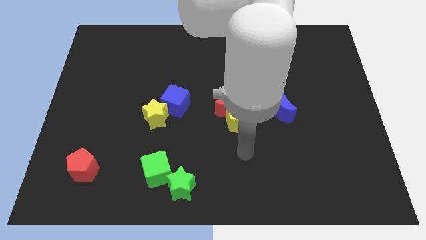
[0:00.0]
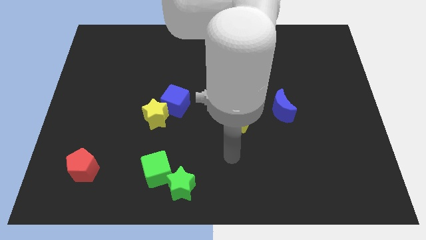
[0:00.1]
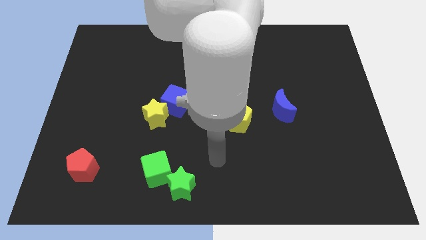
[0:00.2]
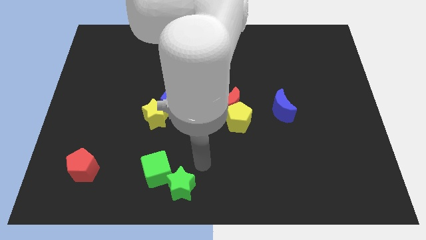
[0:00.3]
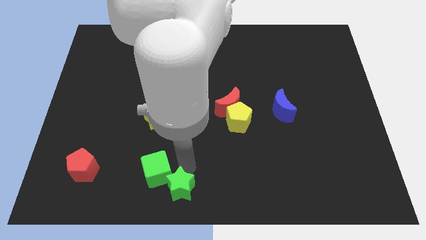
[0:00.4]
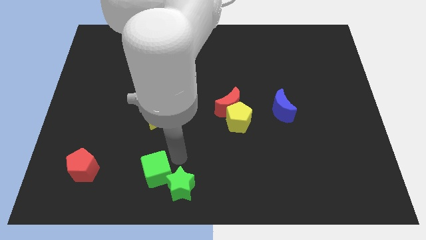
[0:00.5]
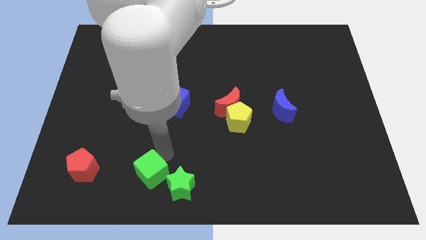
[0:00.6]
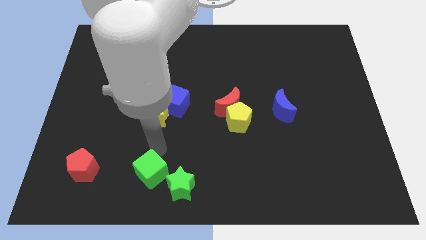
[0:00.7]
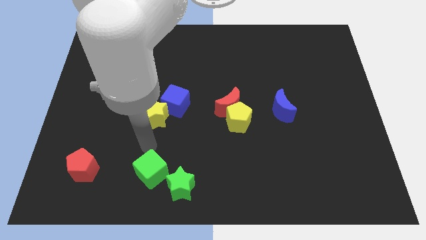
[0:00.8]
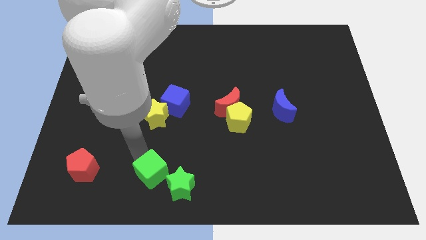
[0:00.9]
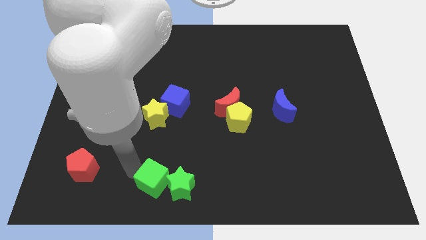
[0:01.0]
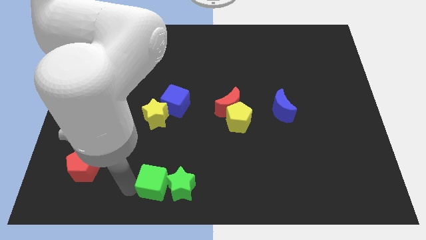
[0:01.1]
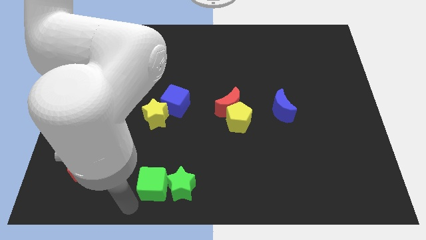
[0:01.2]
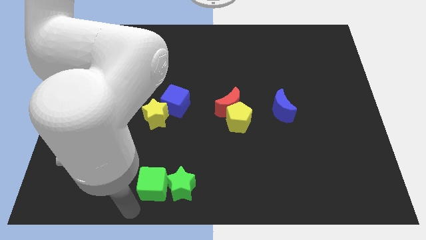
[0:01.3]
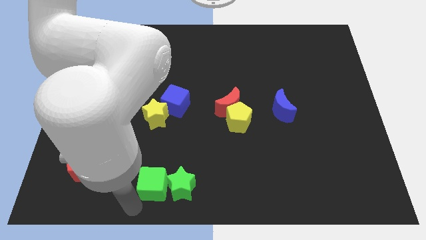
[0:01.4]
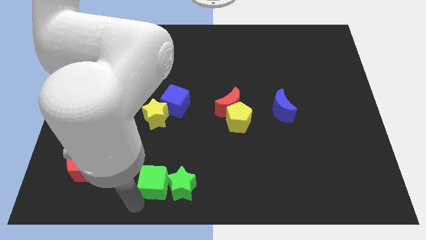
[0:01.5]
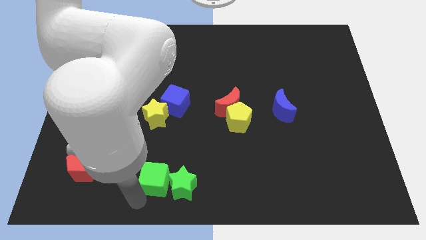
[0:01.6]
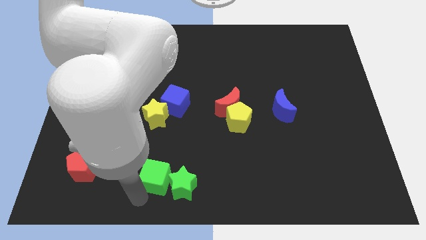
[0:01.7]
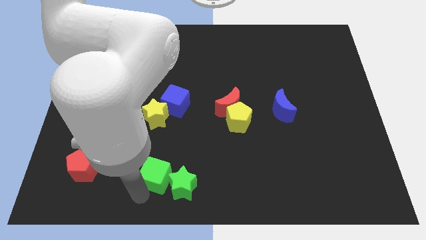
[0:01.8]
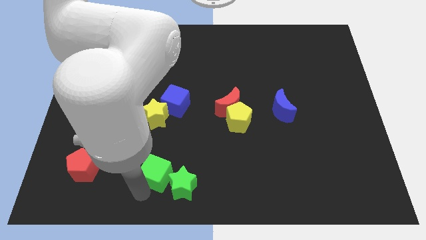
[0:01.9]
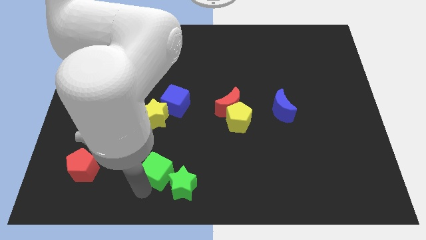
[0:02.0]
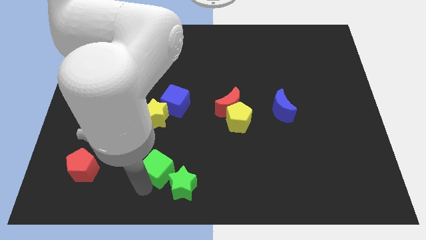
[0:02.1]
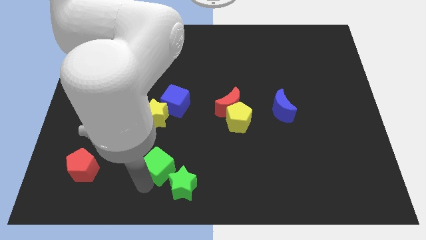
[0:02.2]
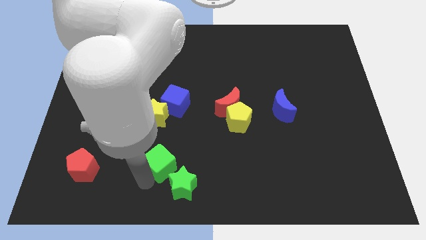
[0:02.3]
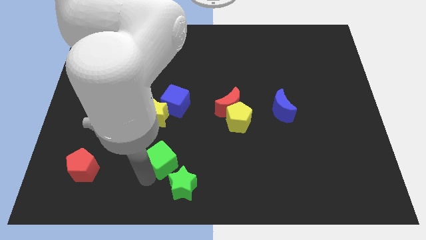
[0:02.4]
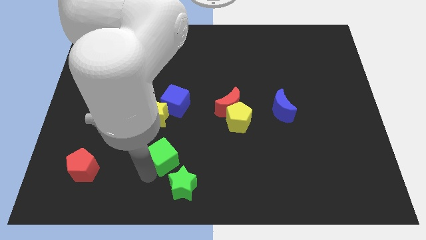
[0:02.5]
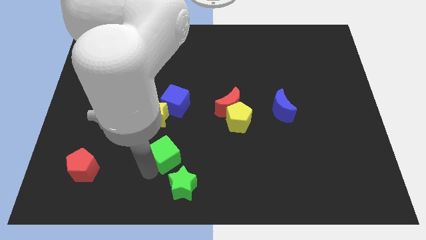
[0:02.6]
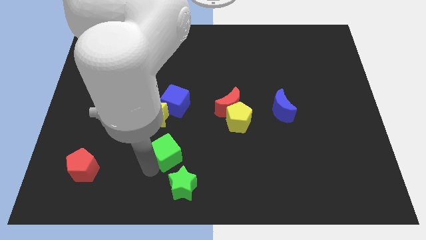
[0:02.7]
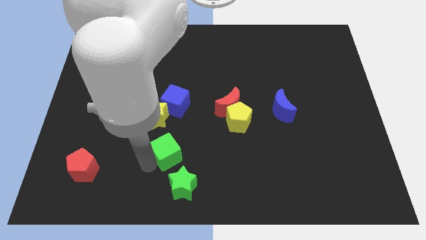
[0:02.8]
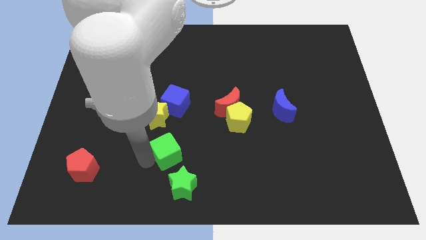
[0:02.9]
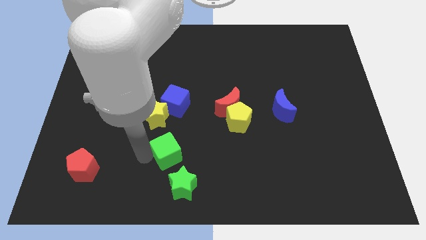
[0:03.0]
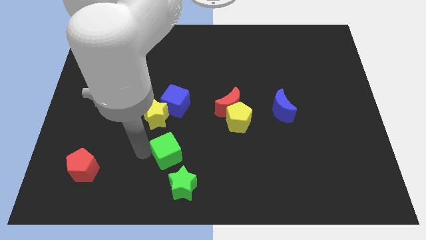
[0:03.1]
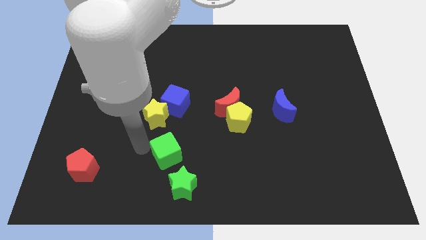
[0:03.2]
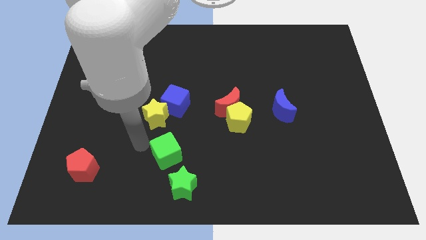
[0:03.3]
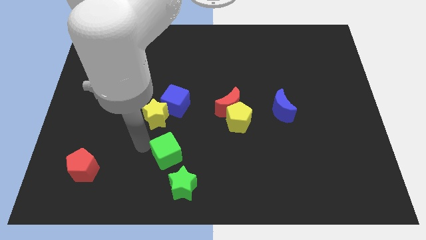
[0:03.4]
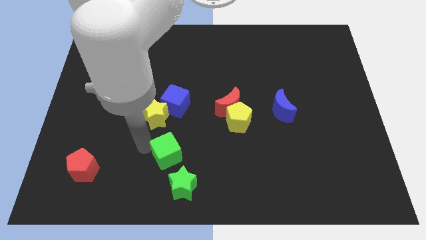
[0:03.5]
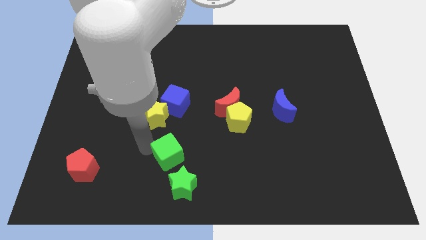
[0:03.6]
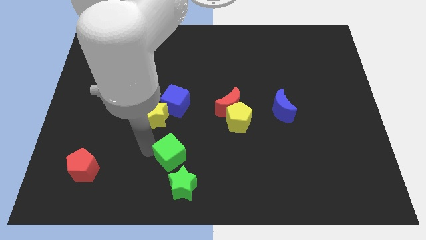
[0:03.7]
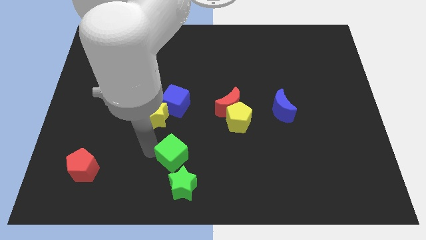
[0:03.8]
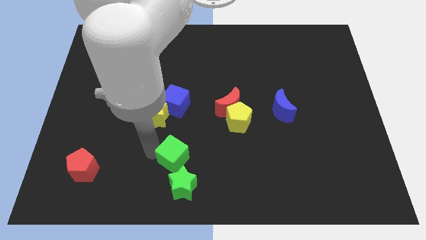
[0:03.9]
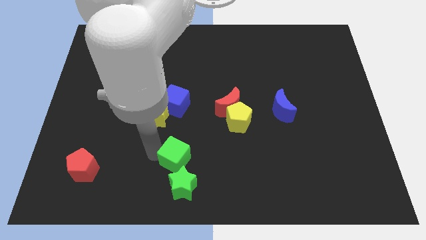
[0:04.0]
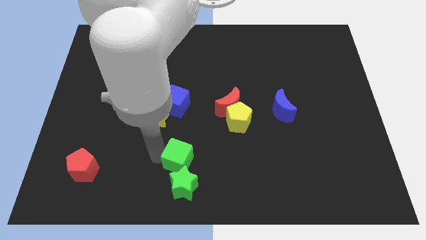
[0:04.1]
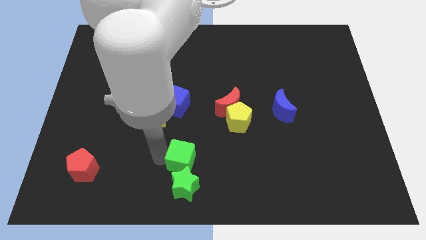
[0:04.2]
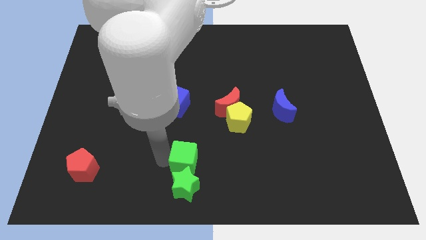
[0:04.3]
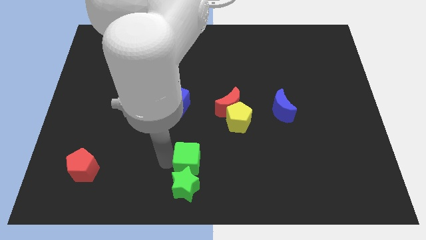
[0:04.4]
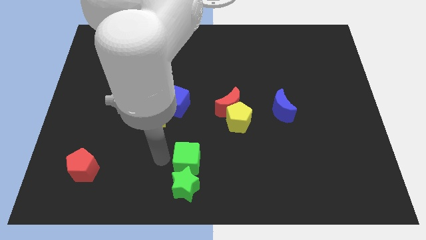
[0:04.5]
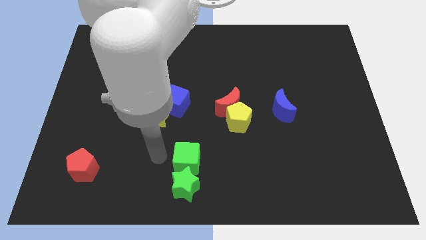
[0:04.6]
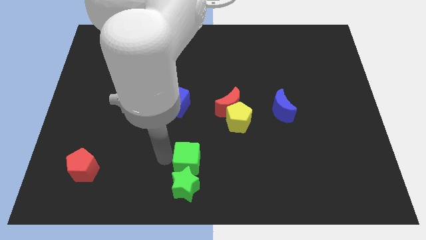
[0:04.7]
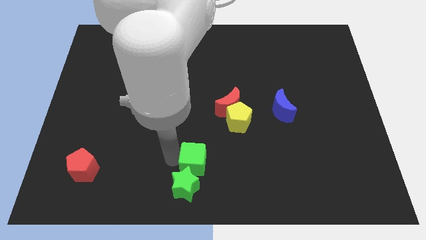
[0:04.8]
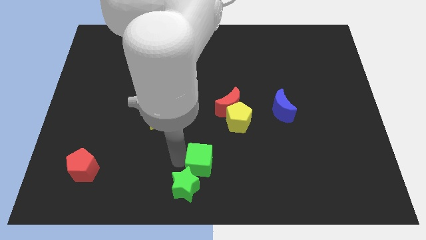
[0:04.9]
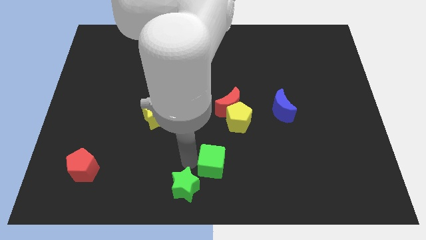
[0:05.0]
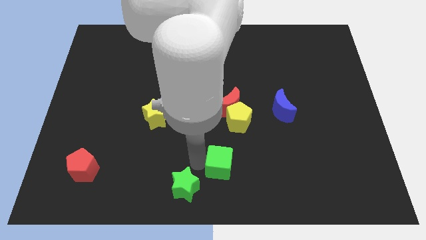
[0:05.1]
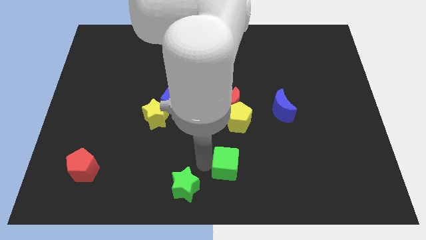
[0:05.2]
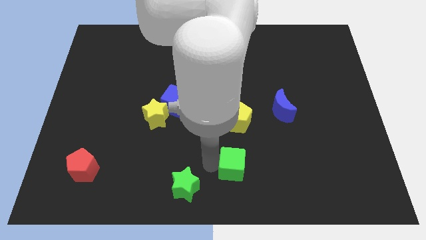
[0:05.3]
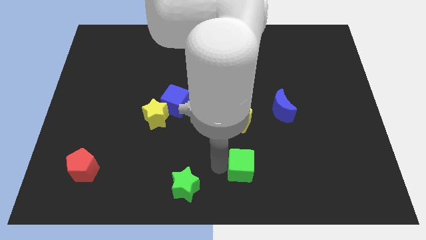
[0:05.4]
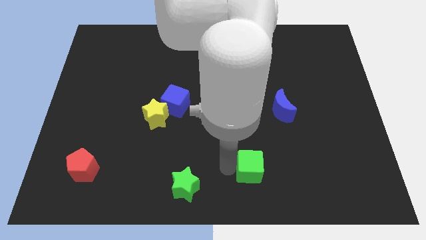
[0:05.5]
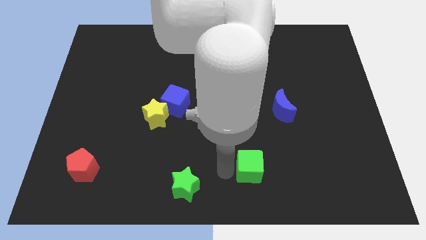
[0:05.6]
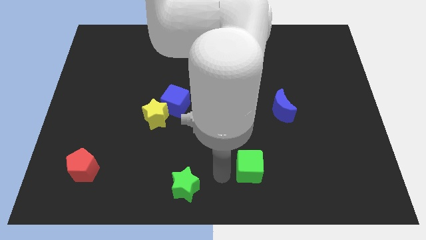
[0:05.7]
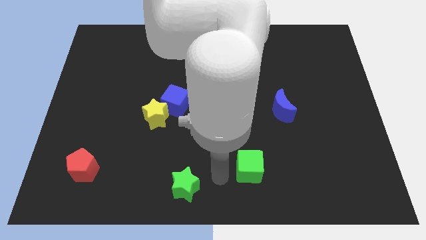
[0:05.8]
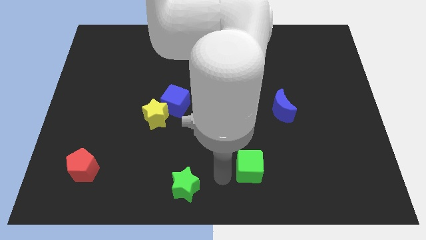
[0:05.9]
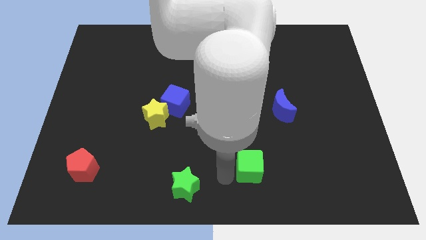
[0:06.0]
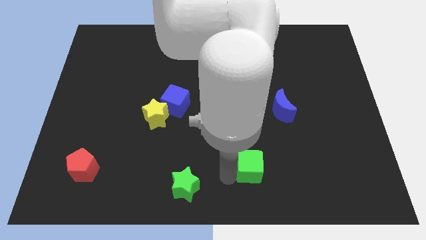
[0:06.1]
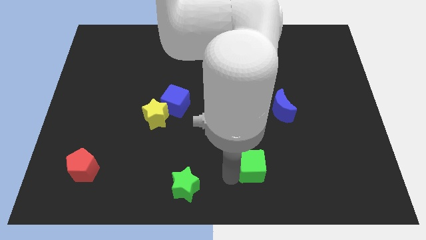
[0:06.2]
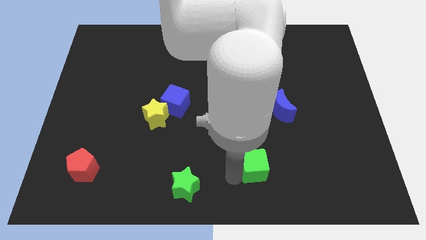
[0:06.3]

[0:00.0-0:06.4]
slide the green cube right

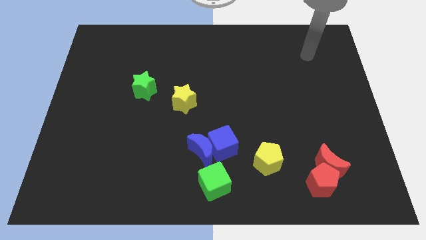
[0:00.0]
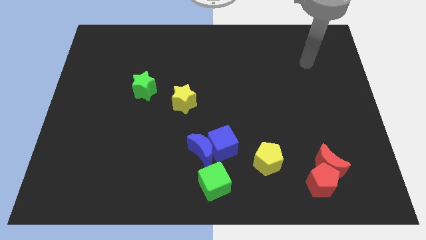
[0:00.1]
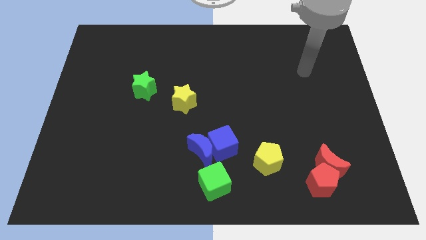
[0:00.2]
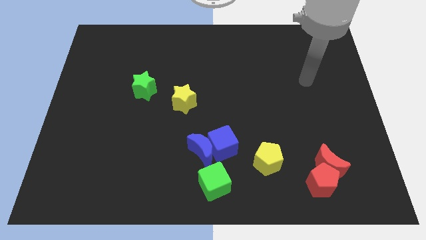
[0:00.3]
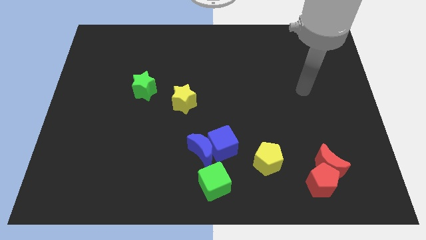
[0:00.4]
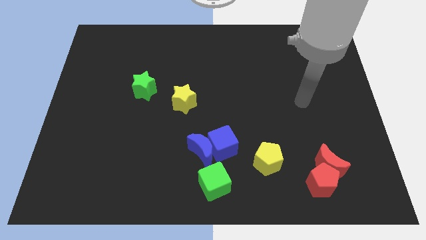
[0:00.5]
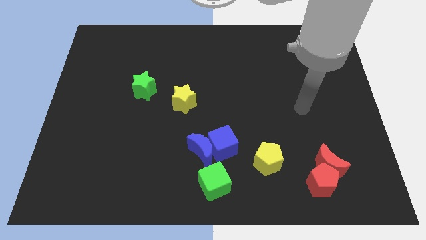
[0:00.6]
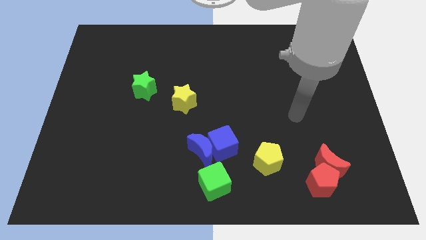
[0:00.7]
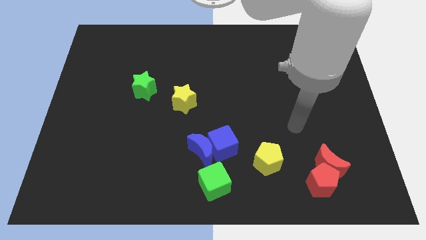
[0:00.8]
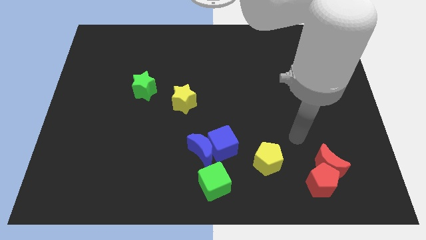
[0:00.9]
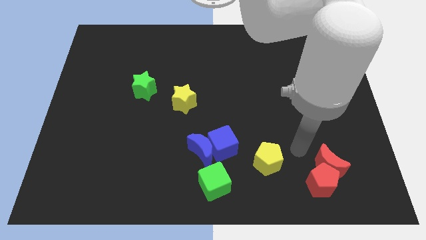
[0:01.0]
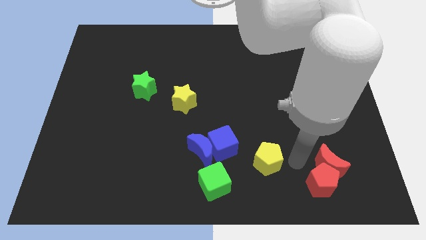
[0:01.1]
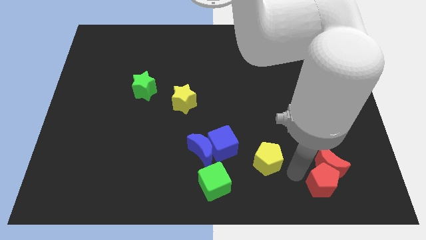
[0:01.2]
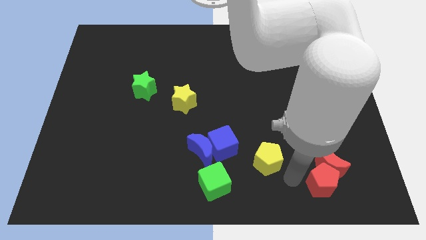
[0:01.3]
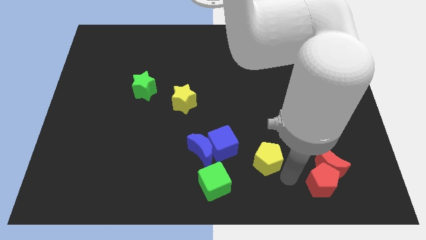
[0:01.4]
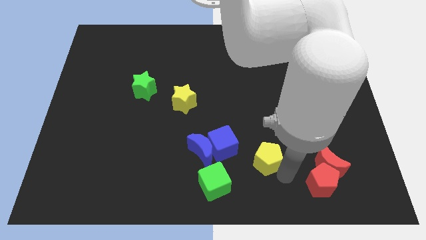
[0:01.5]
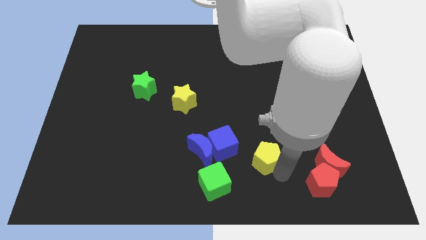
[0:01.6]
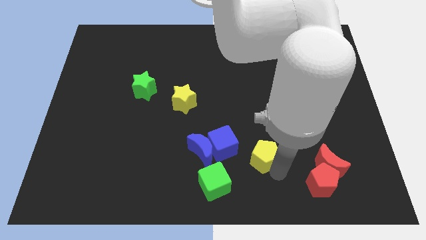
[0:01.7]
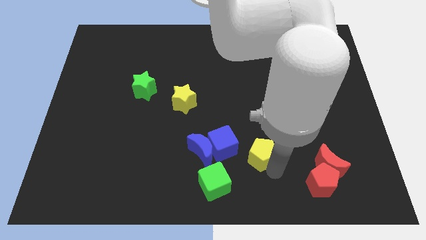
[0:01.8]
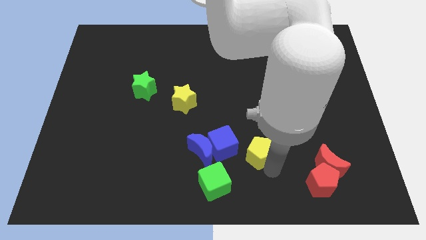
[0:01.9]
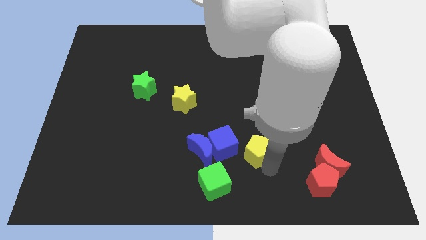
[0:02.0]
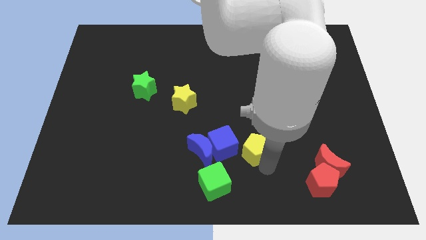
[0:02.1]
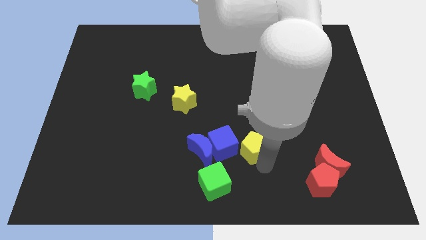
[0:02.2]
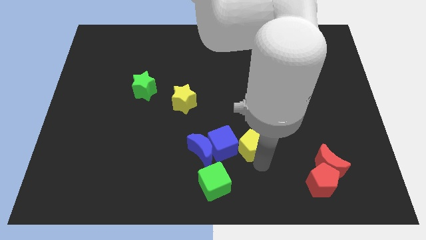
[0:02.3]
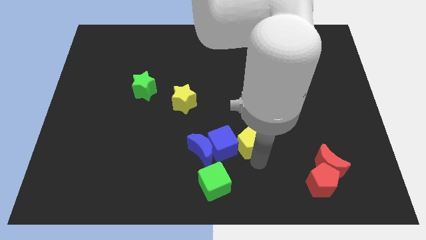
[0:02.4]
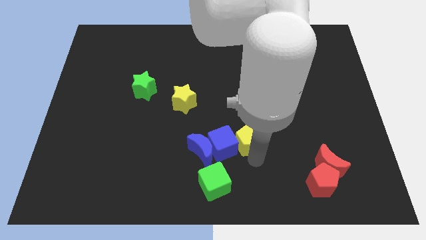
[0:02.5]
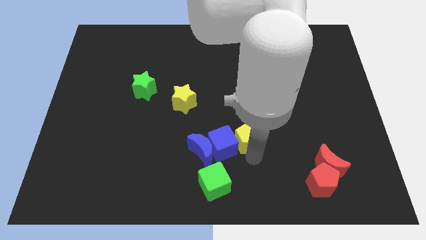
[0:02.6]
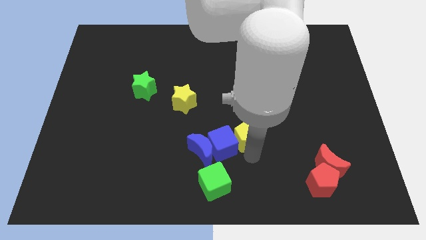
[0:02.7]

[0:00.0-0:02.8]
move the yellow pentagon somewhat upwards and left
